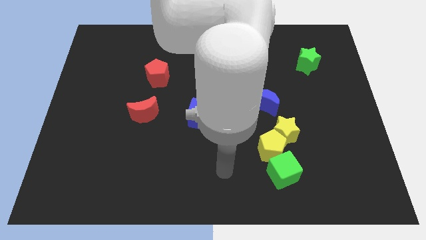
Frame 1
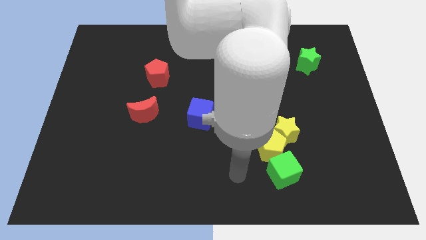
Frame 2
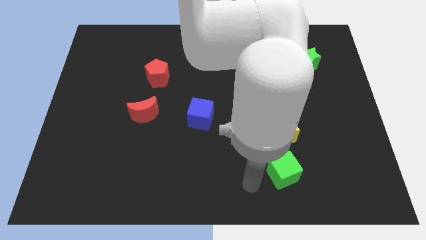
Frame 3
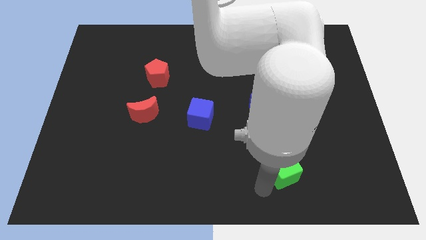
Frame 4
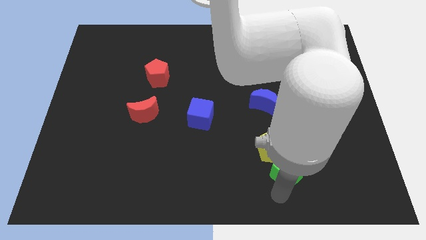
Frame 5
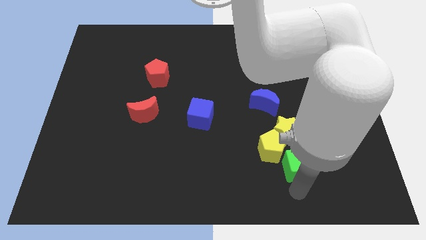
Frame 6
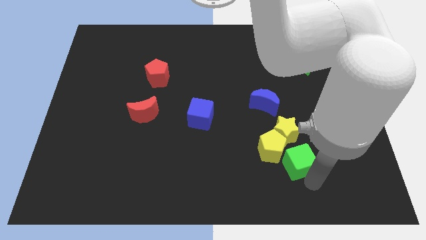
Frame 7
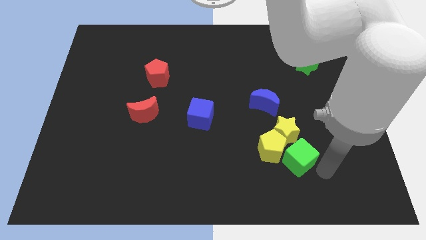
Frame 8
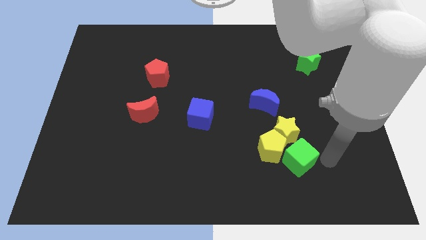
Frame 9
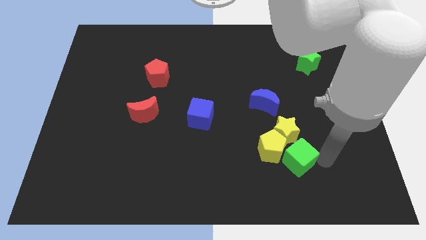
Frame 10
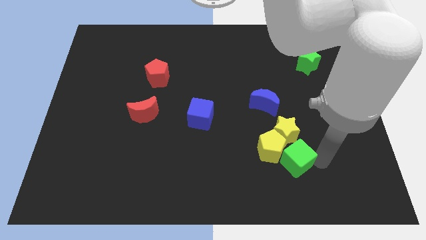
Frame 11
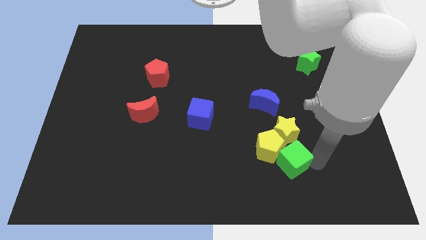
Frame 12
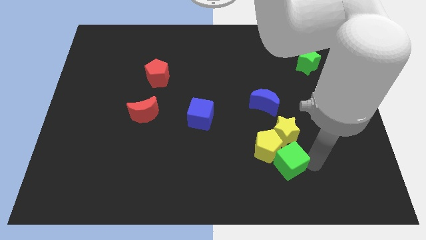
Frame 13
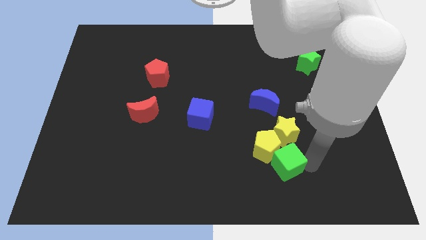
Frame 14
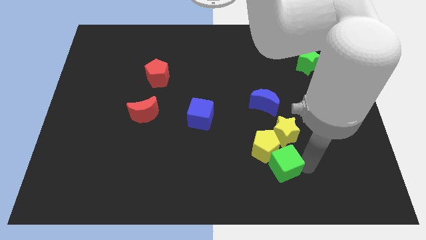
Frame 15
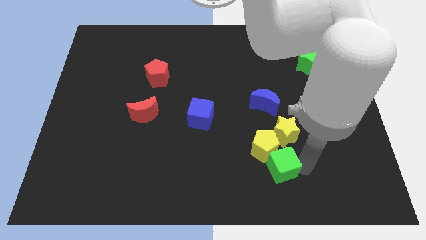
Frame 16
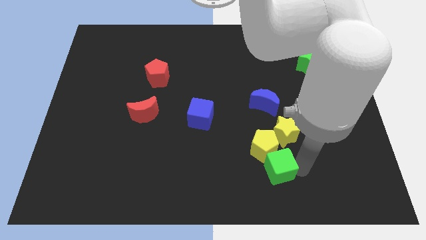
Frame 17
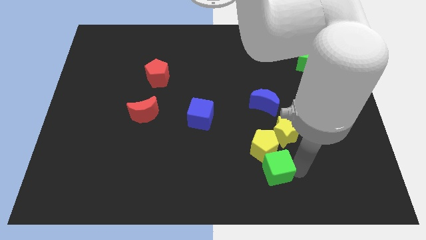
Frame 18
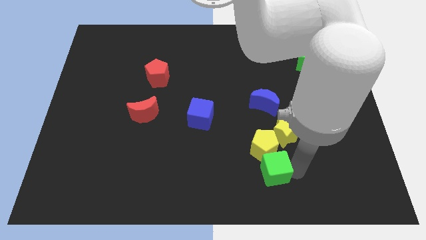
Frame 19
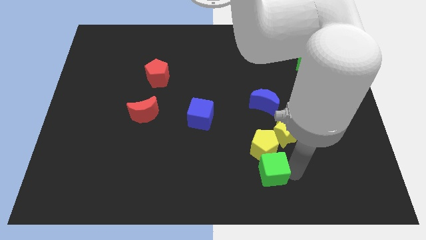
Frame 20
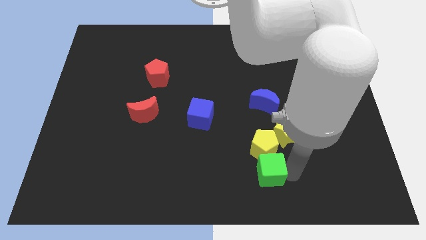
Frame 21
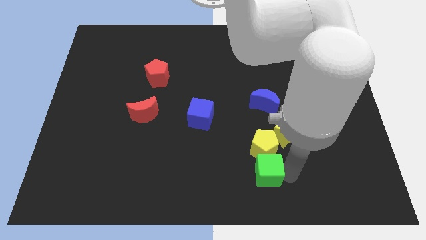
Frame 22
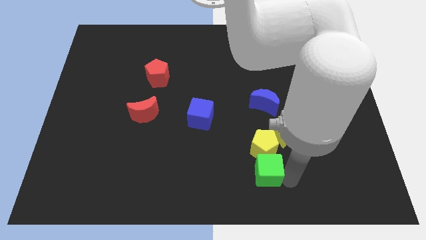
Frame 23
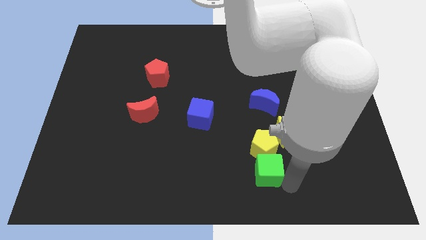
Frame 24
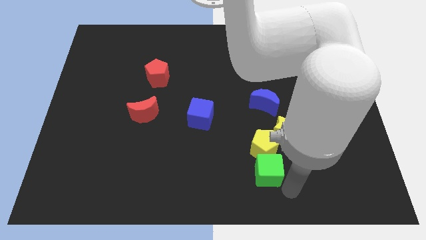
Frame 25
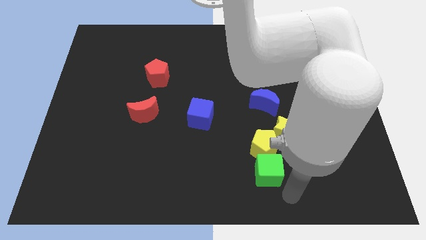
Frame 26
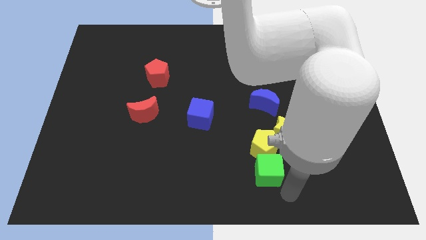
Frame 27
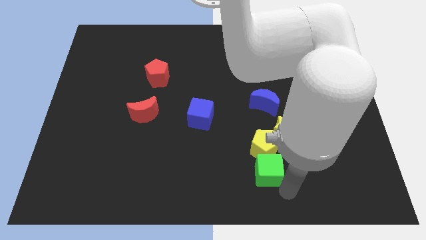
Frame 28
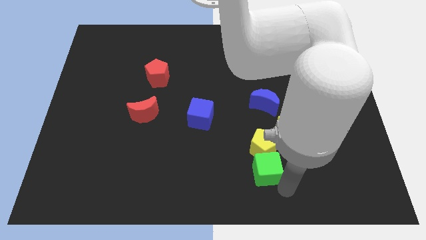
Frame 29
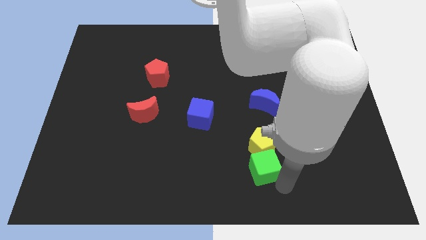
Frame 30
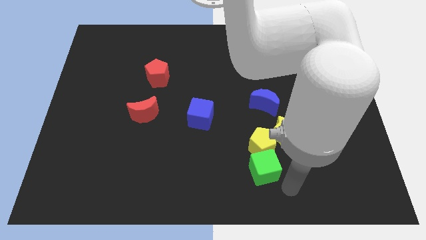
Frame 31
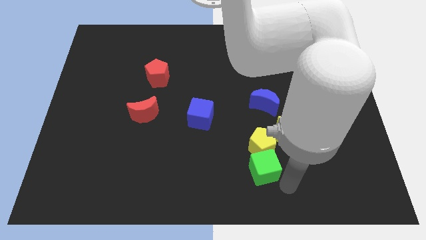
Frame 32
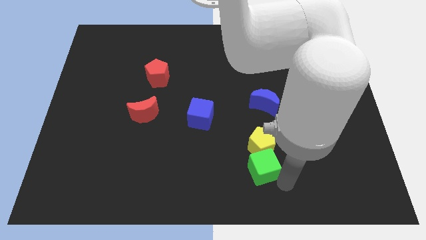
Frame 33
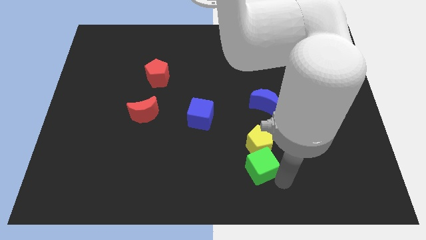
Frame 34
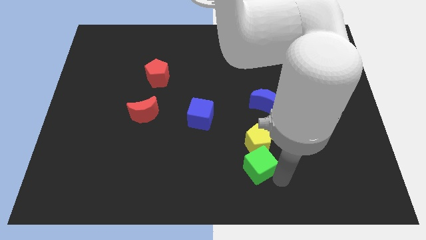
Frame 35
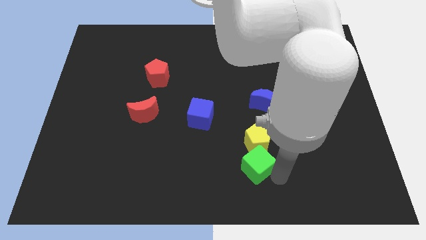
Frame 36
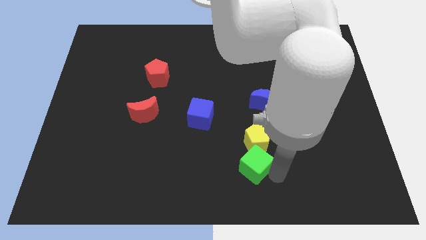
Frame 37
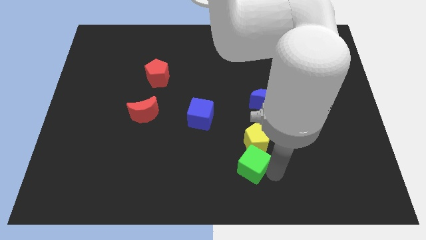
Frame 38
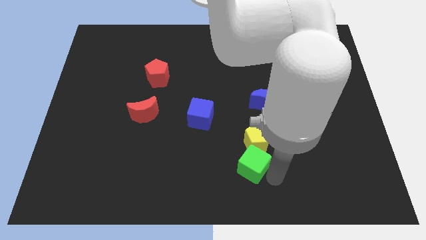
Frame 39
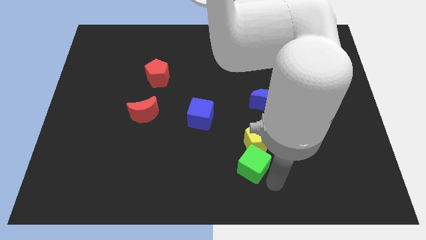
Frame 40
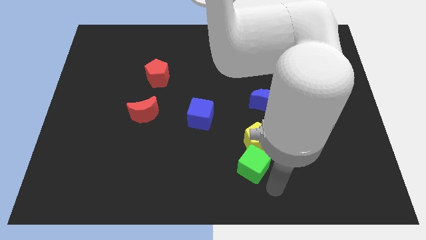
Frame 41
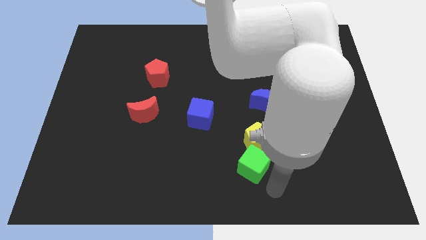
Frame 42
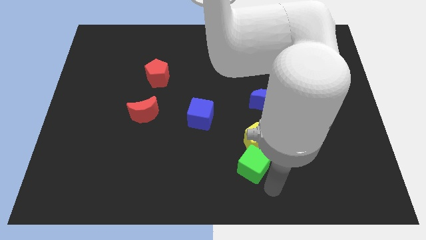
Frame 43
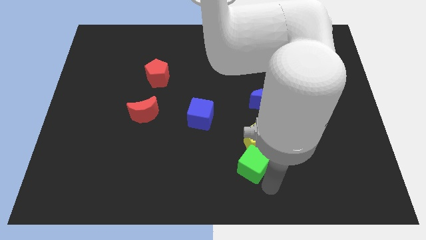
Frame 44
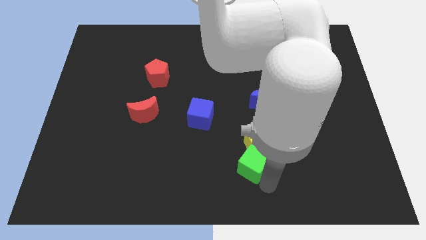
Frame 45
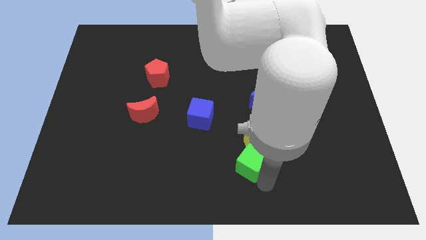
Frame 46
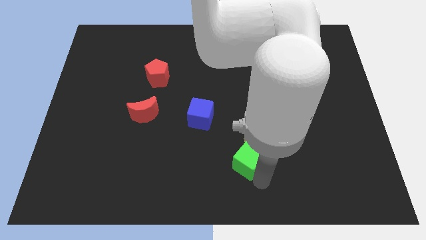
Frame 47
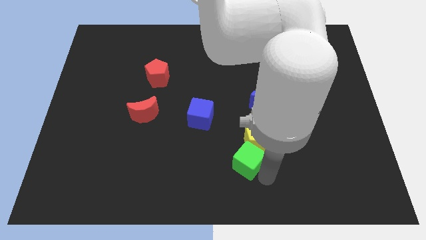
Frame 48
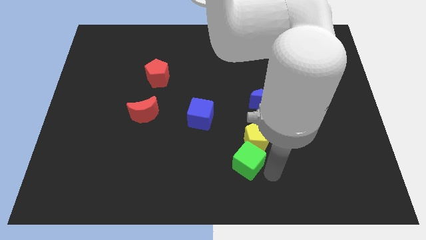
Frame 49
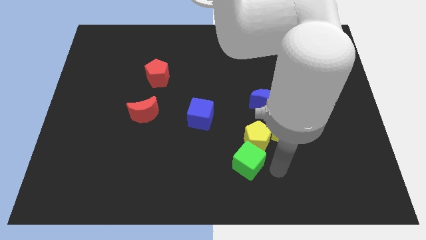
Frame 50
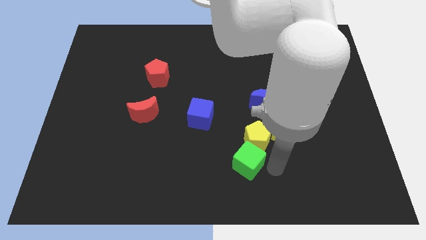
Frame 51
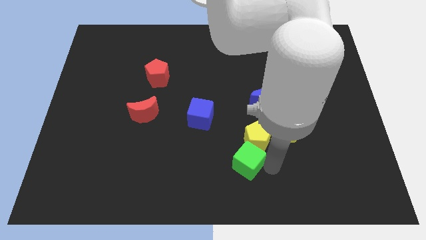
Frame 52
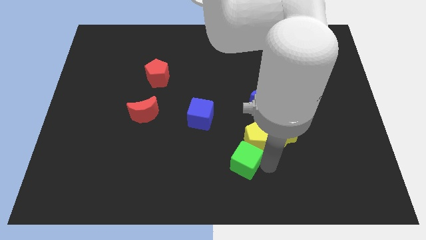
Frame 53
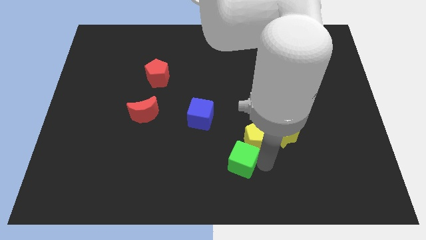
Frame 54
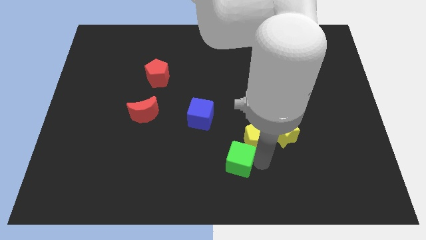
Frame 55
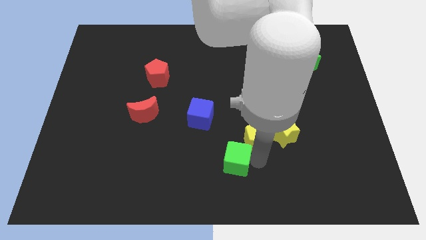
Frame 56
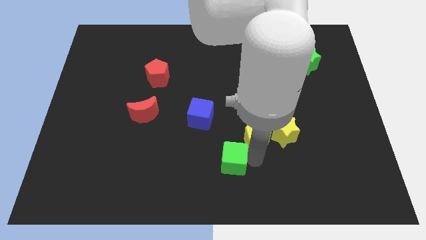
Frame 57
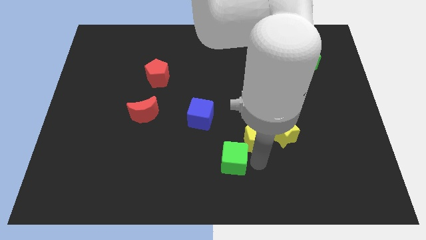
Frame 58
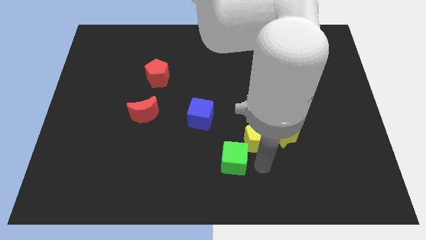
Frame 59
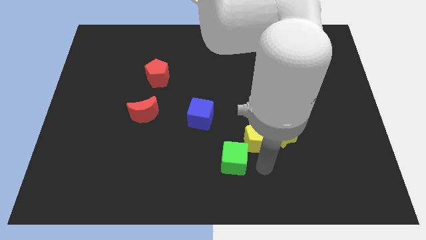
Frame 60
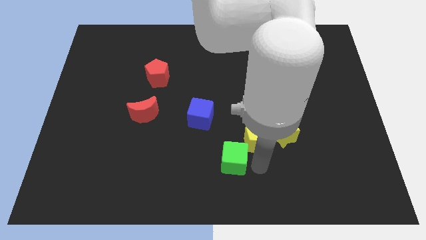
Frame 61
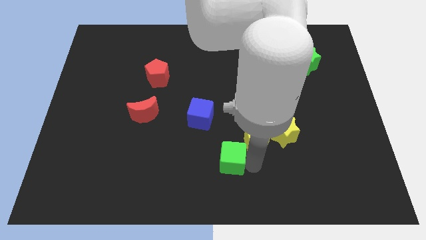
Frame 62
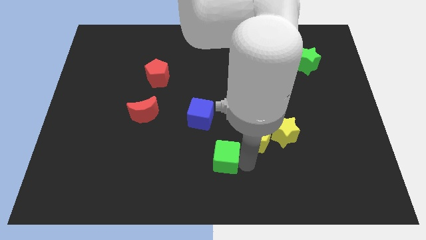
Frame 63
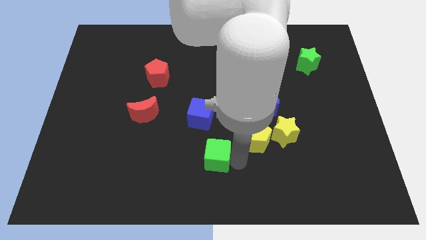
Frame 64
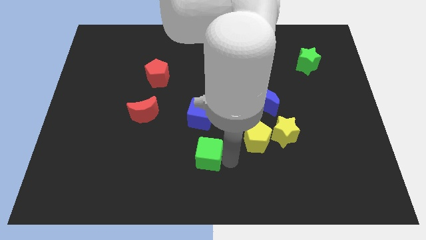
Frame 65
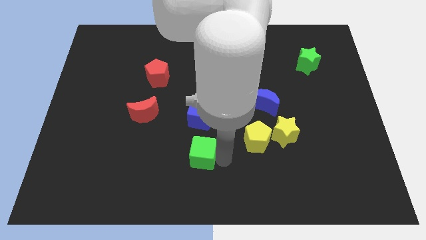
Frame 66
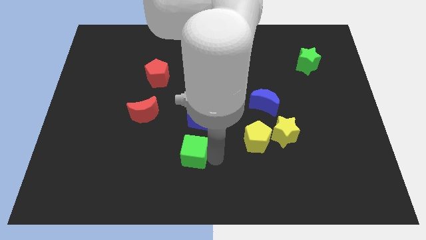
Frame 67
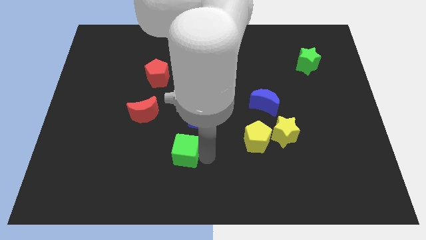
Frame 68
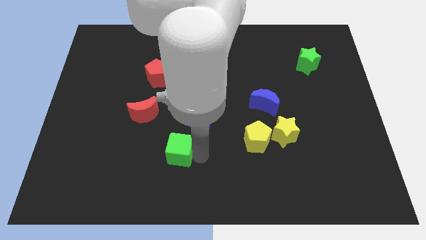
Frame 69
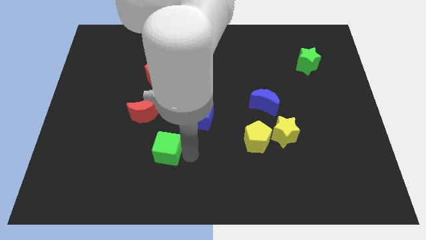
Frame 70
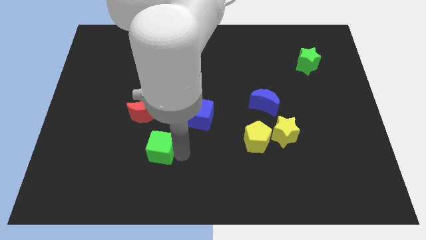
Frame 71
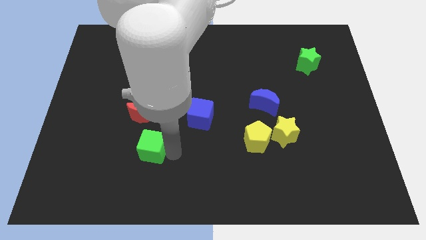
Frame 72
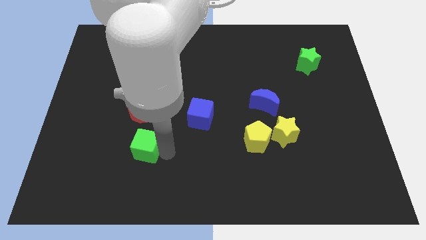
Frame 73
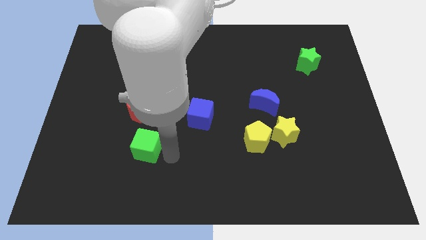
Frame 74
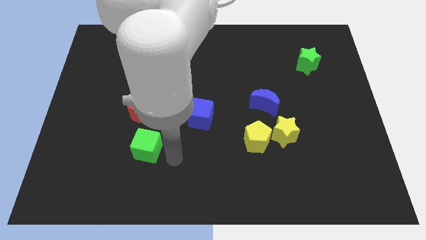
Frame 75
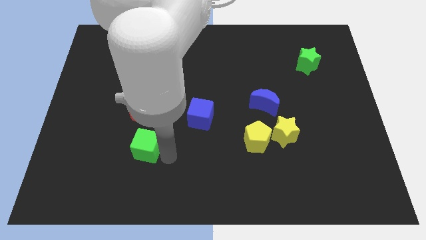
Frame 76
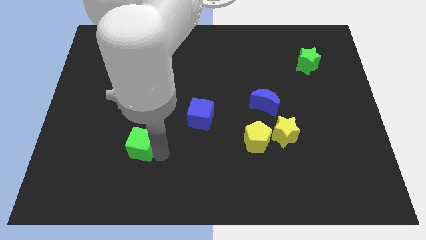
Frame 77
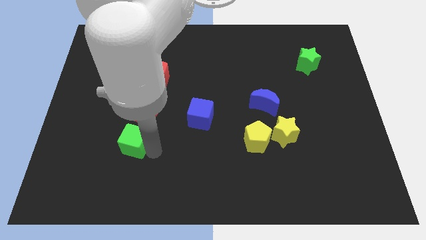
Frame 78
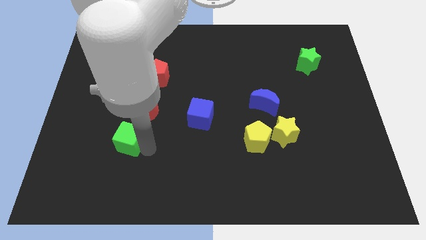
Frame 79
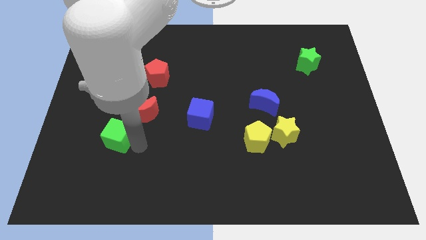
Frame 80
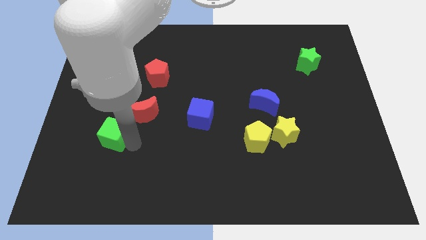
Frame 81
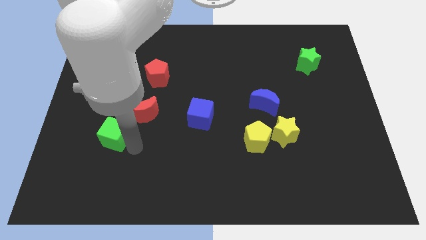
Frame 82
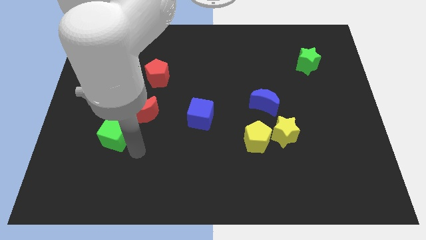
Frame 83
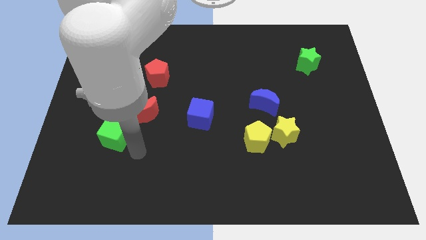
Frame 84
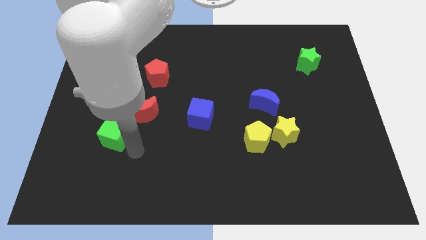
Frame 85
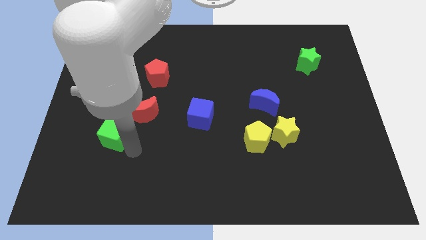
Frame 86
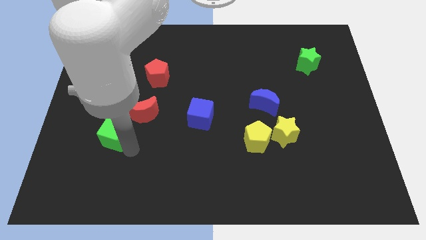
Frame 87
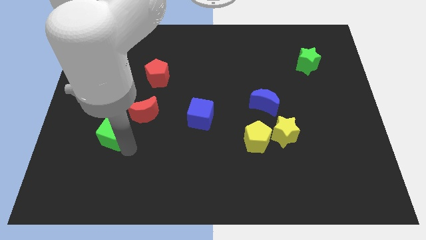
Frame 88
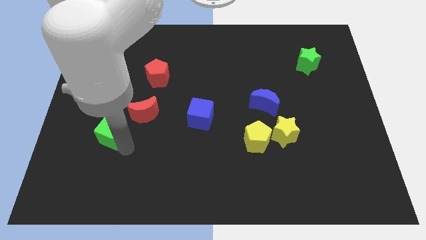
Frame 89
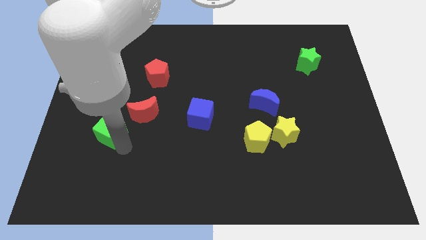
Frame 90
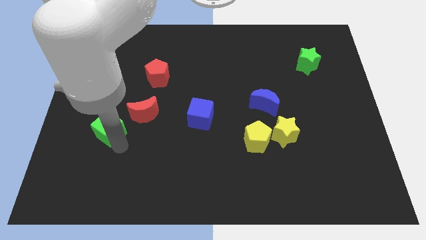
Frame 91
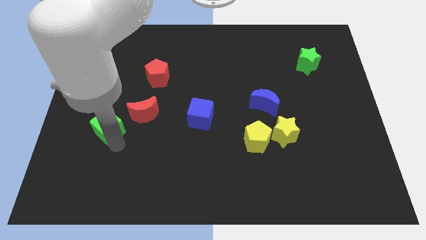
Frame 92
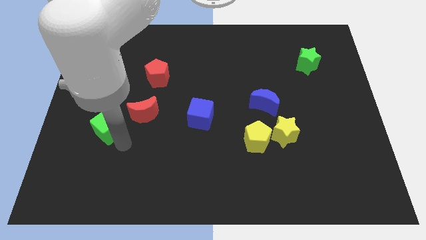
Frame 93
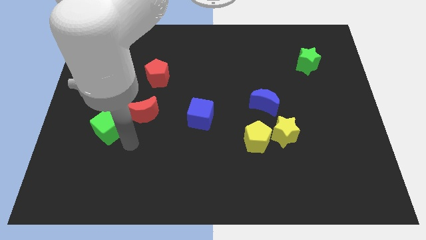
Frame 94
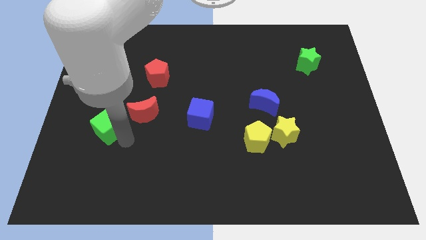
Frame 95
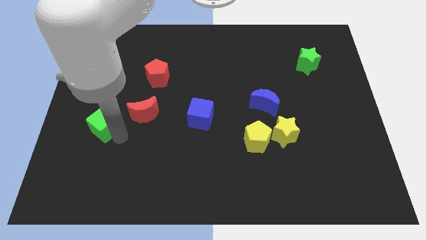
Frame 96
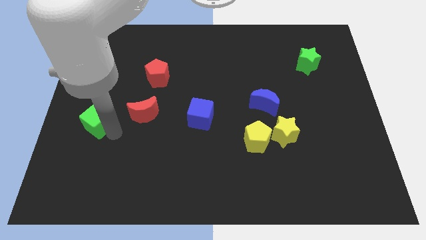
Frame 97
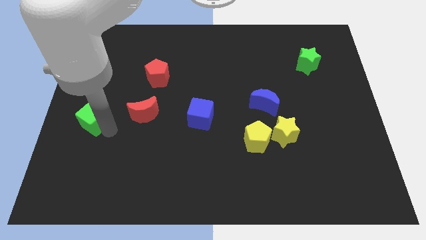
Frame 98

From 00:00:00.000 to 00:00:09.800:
put the green cube to the left side of the board
